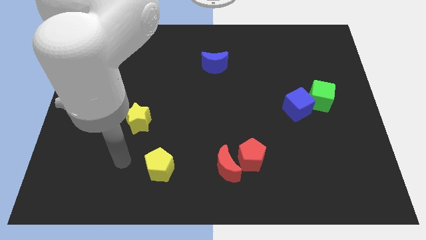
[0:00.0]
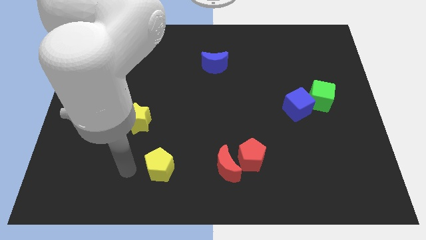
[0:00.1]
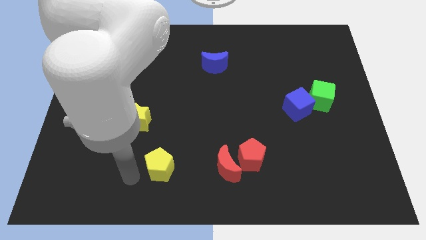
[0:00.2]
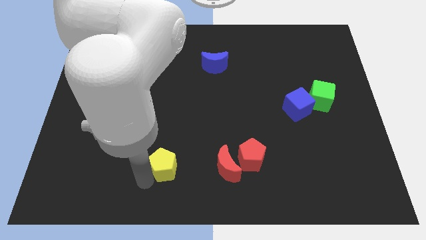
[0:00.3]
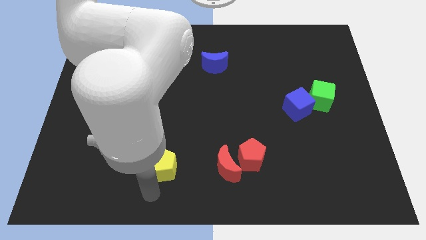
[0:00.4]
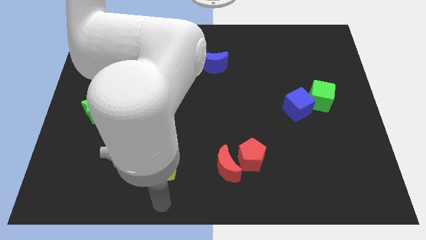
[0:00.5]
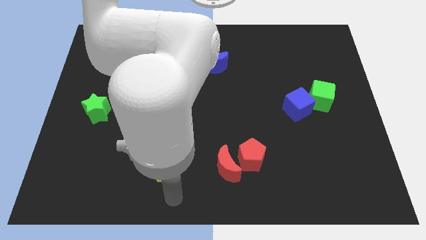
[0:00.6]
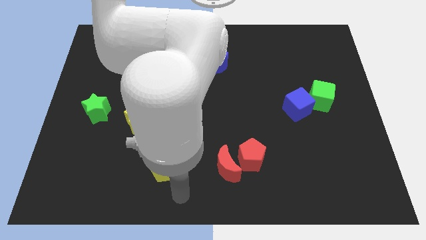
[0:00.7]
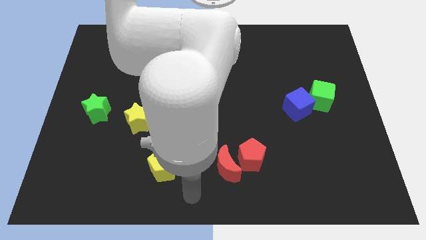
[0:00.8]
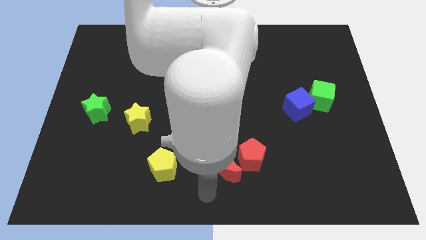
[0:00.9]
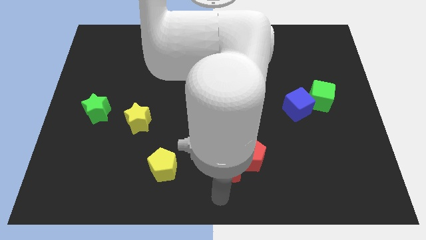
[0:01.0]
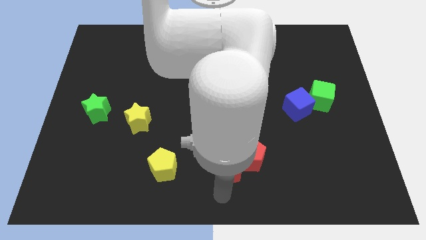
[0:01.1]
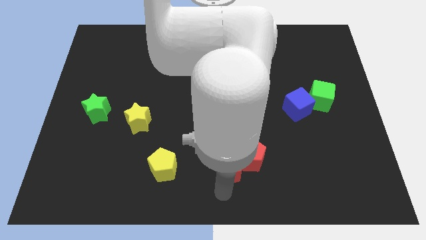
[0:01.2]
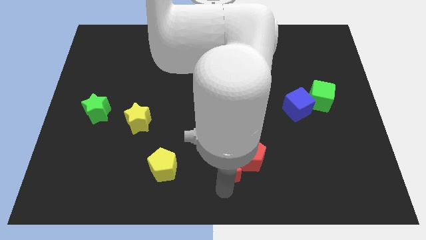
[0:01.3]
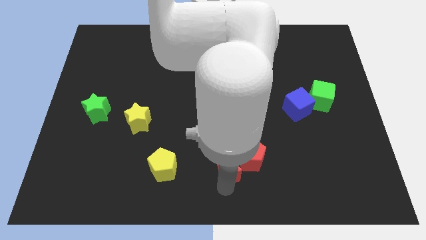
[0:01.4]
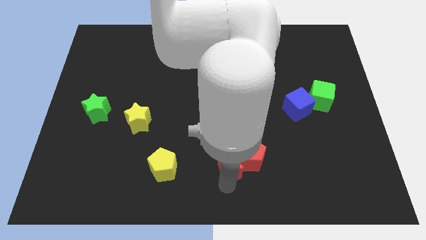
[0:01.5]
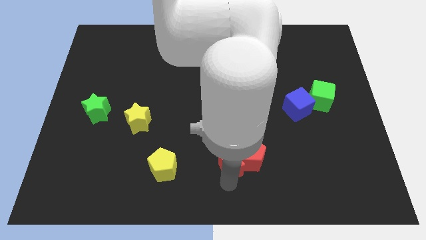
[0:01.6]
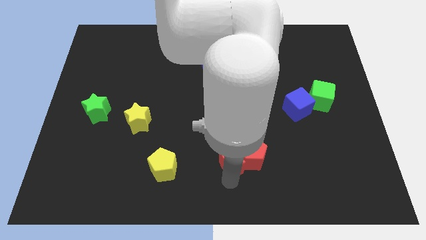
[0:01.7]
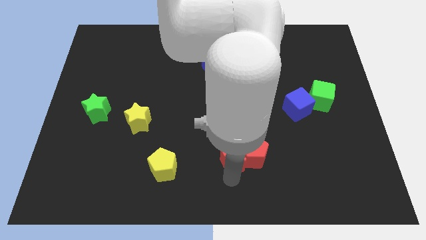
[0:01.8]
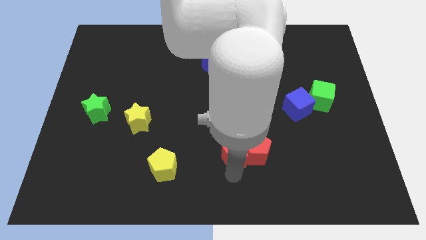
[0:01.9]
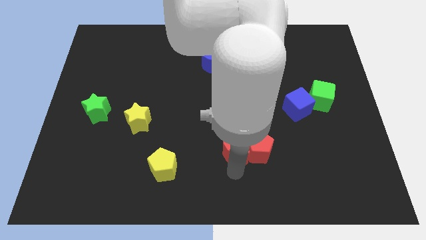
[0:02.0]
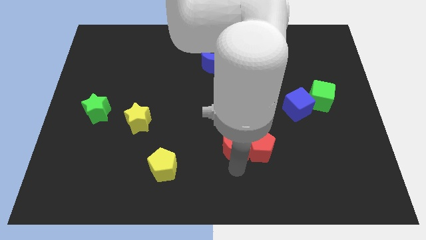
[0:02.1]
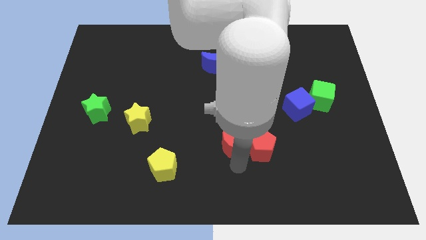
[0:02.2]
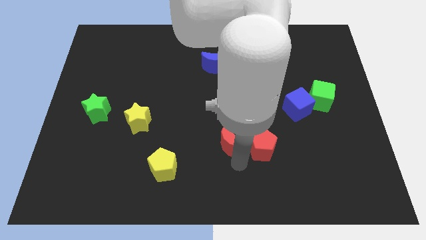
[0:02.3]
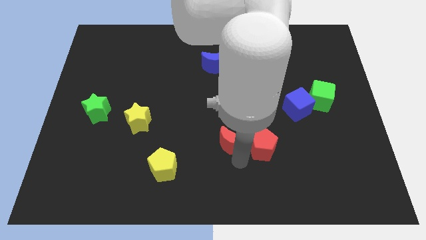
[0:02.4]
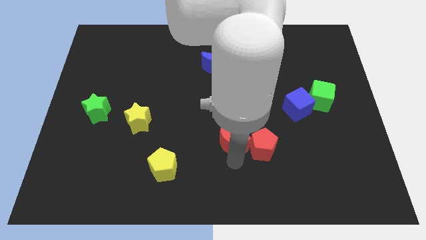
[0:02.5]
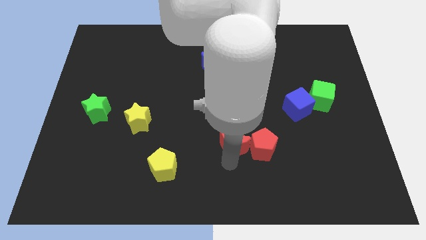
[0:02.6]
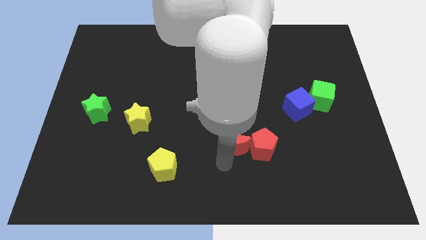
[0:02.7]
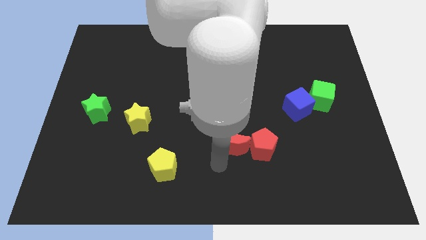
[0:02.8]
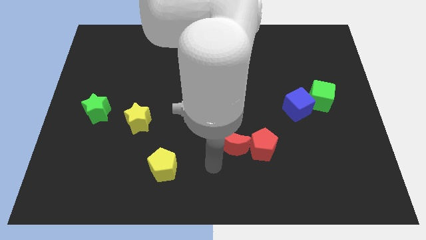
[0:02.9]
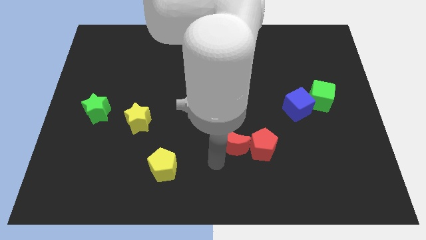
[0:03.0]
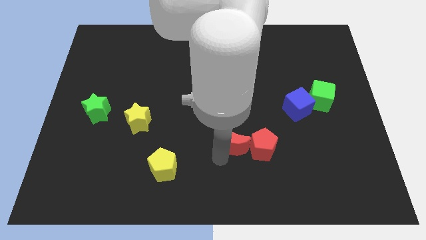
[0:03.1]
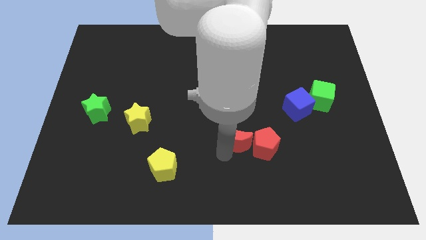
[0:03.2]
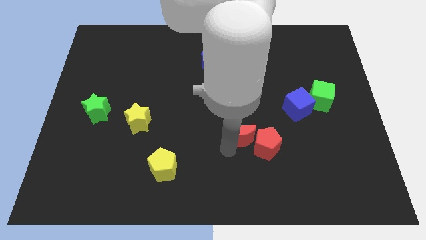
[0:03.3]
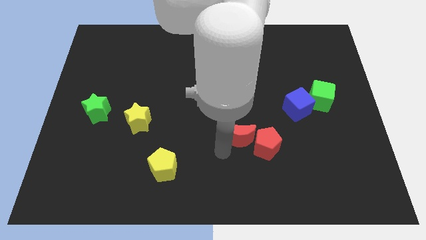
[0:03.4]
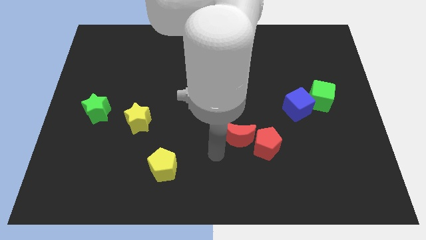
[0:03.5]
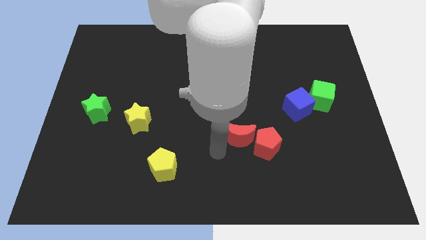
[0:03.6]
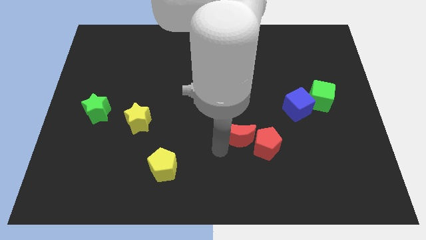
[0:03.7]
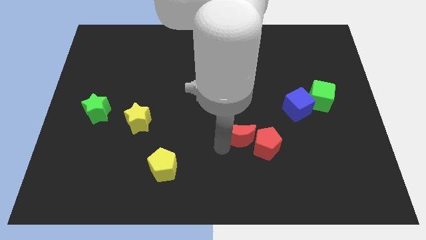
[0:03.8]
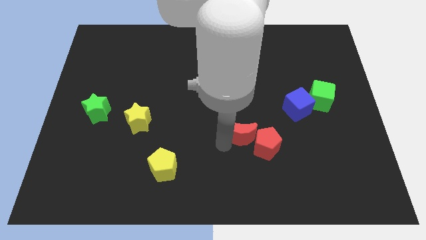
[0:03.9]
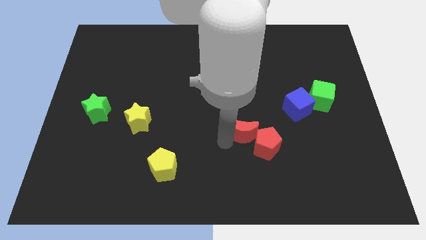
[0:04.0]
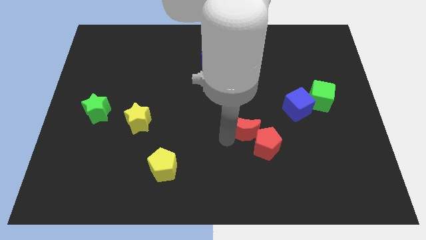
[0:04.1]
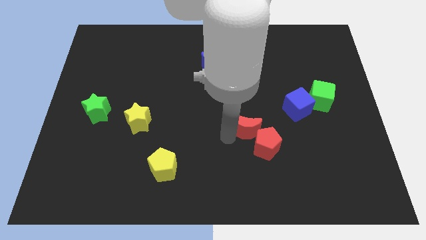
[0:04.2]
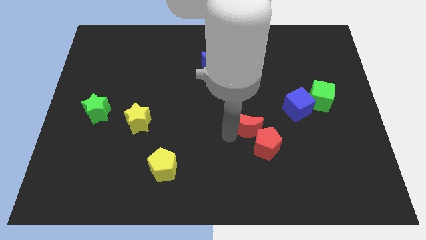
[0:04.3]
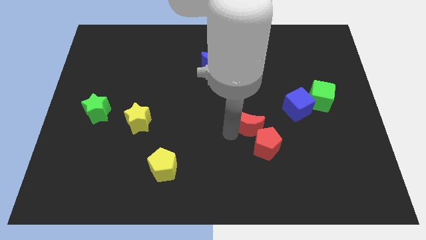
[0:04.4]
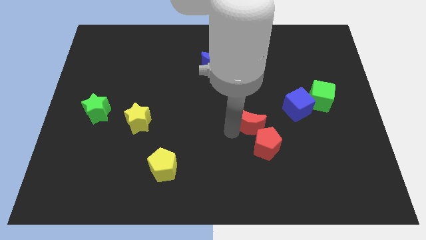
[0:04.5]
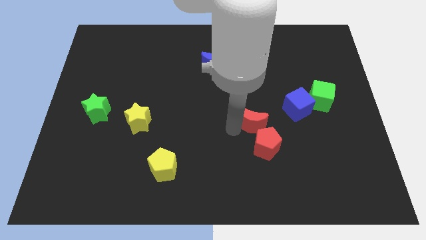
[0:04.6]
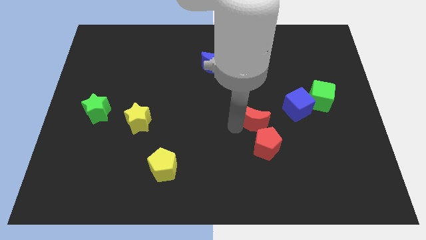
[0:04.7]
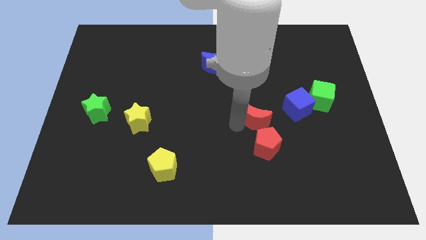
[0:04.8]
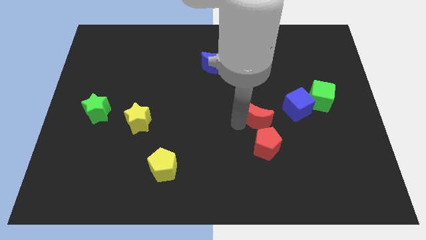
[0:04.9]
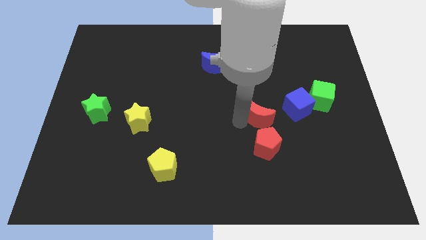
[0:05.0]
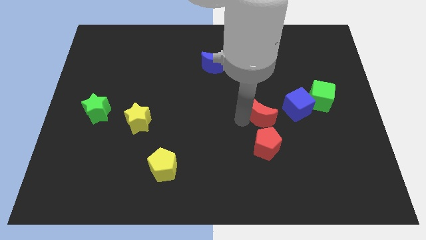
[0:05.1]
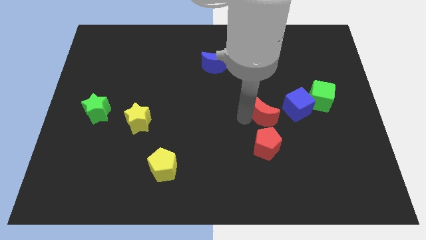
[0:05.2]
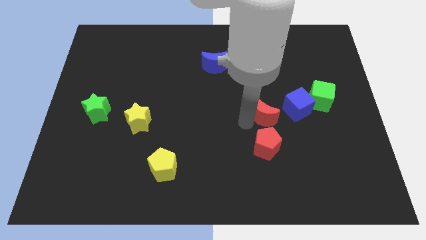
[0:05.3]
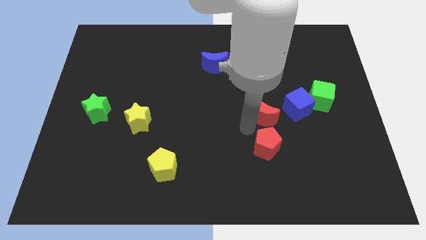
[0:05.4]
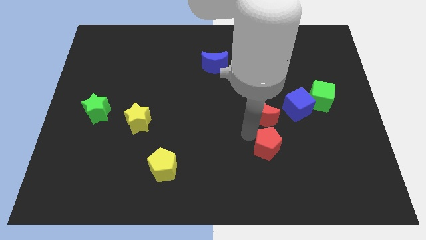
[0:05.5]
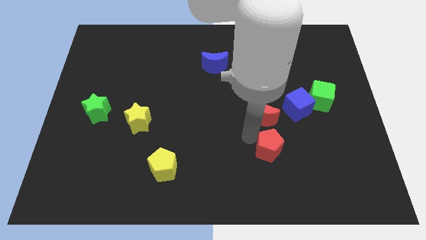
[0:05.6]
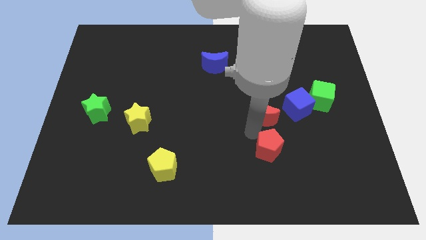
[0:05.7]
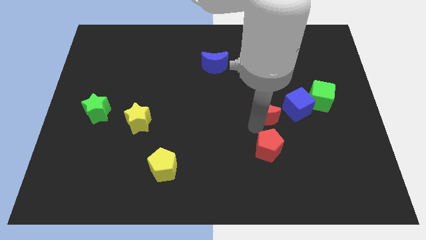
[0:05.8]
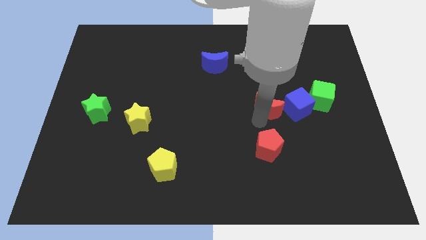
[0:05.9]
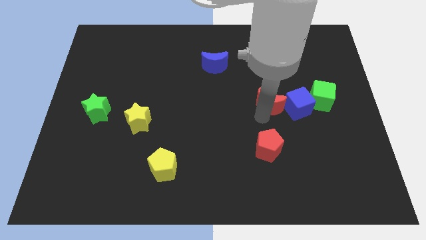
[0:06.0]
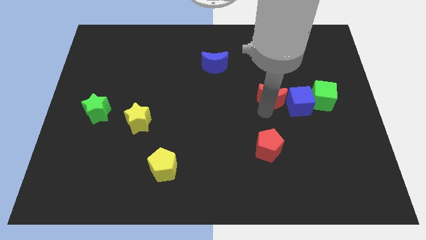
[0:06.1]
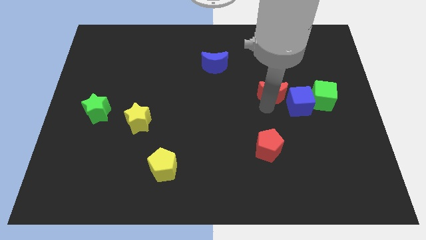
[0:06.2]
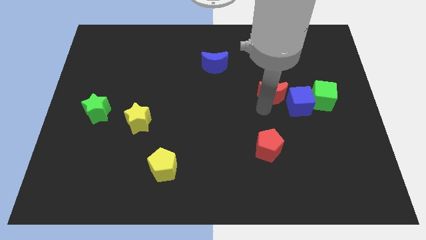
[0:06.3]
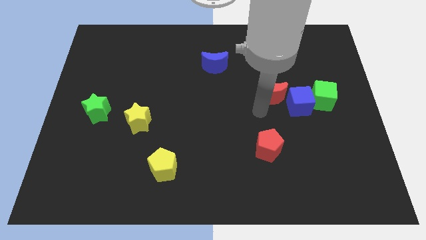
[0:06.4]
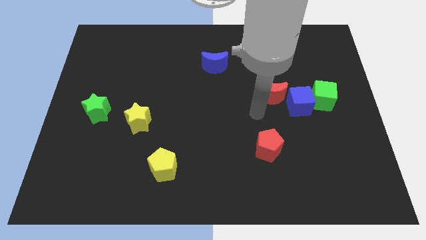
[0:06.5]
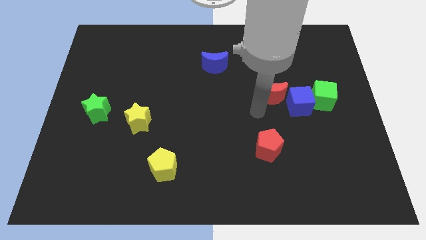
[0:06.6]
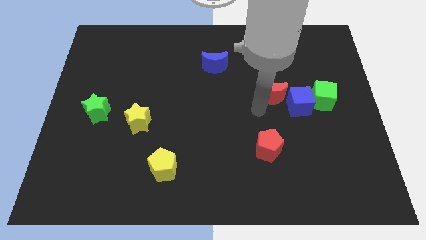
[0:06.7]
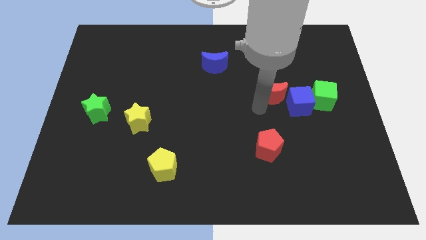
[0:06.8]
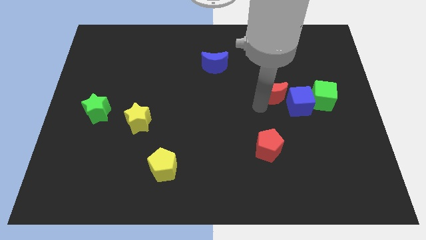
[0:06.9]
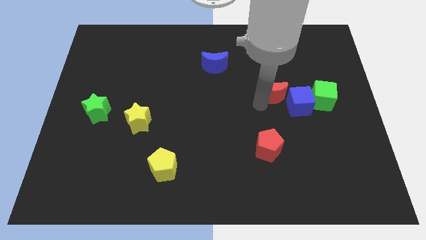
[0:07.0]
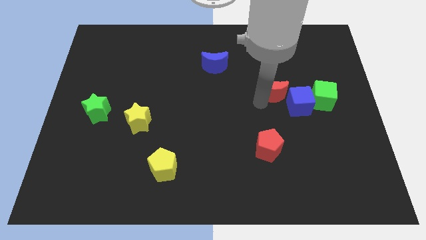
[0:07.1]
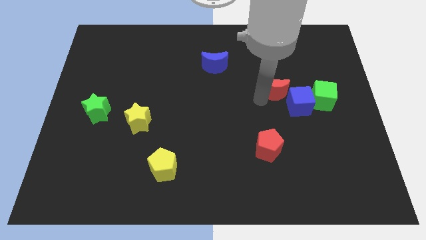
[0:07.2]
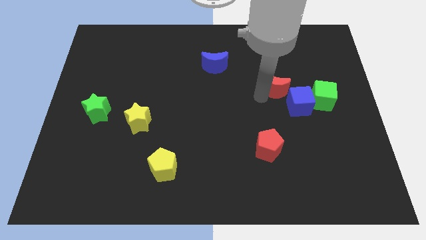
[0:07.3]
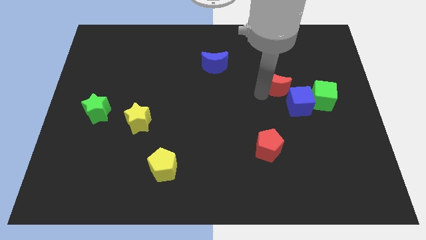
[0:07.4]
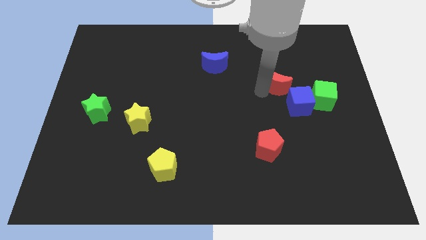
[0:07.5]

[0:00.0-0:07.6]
push the red moon to the top side of the blue cube
